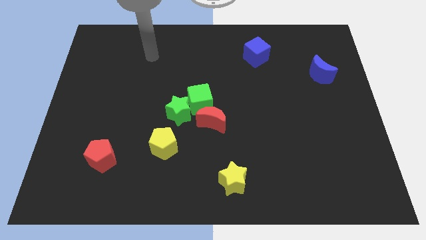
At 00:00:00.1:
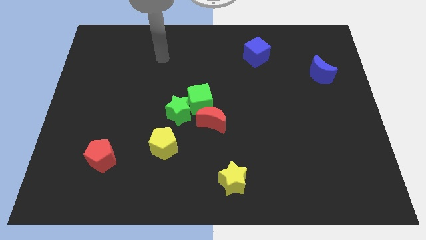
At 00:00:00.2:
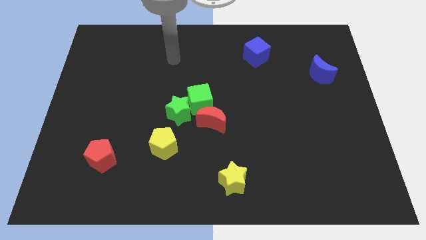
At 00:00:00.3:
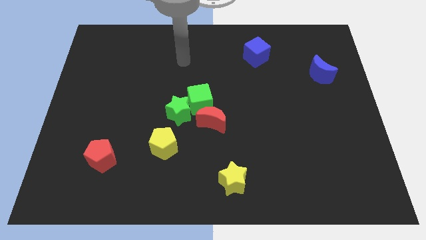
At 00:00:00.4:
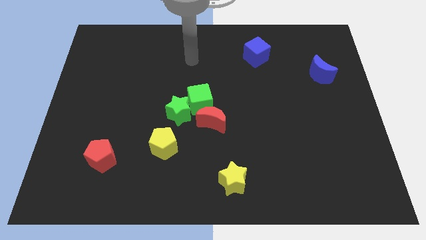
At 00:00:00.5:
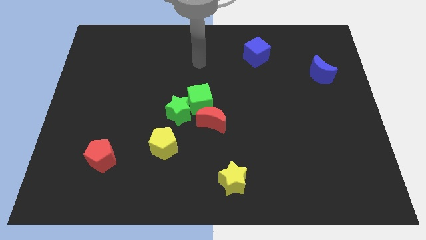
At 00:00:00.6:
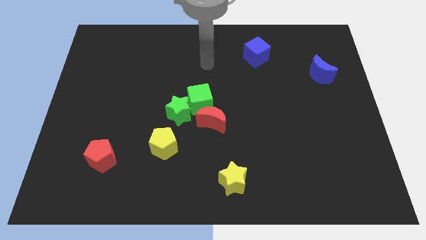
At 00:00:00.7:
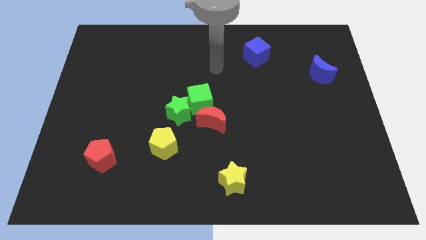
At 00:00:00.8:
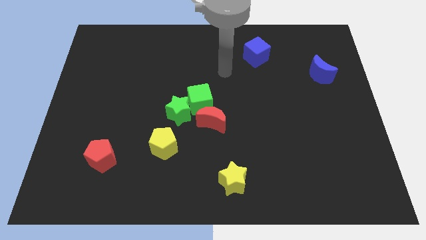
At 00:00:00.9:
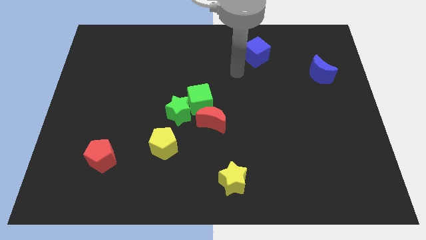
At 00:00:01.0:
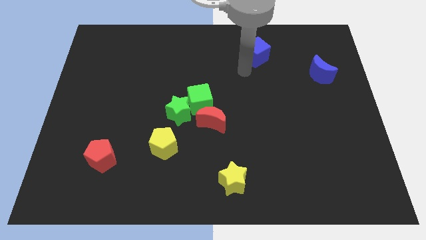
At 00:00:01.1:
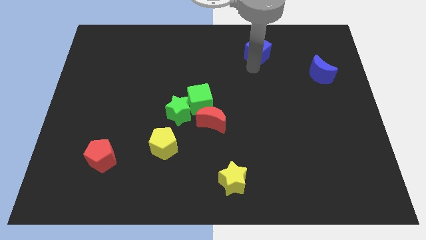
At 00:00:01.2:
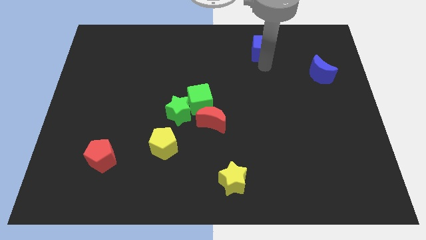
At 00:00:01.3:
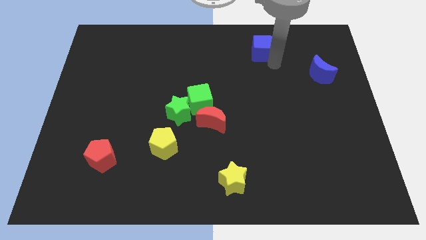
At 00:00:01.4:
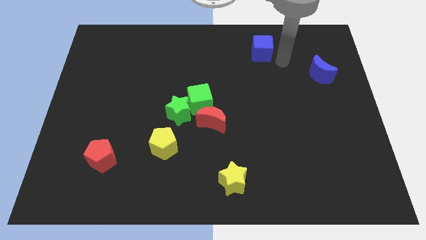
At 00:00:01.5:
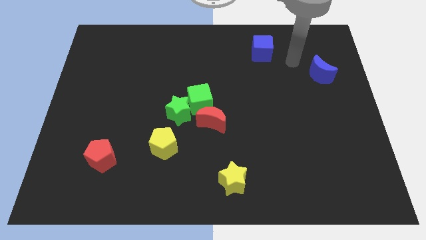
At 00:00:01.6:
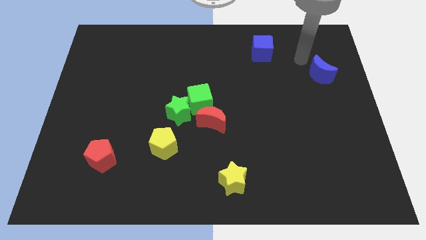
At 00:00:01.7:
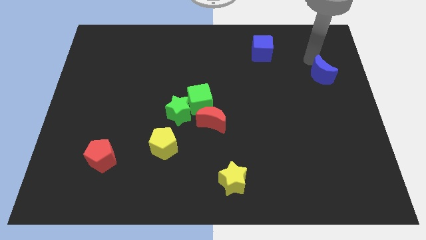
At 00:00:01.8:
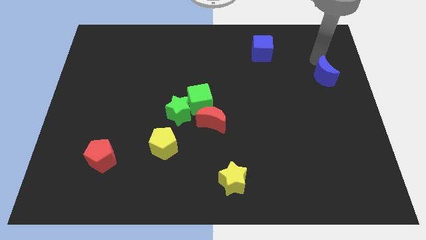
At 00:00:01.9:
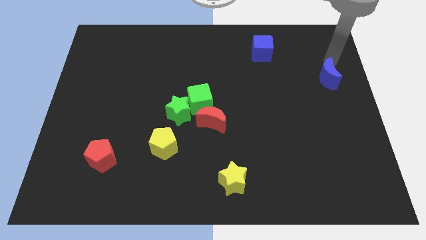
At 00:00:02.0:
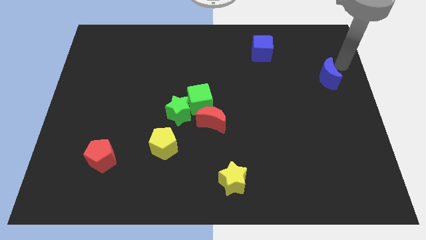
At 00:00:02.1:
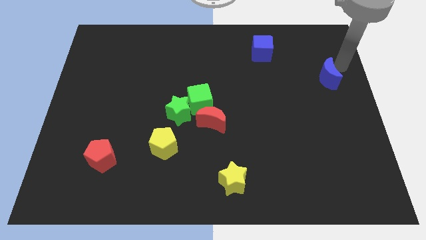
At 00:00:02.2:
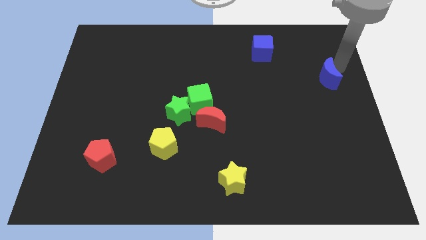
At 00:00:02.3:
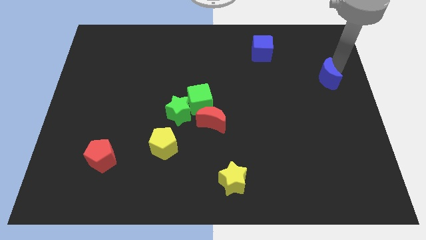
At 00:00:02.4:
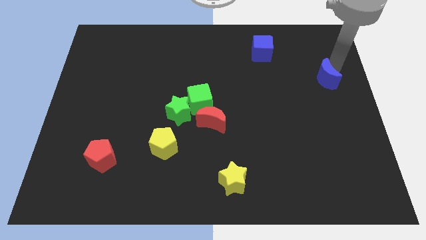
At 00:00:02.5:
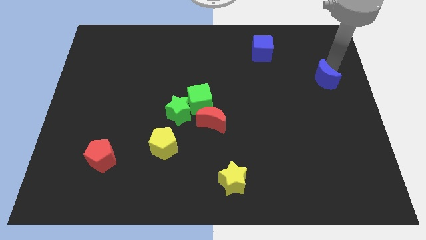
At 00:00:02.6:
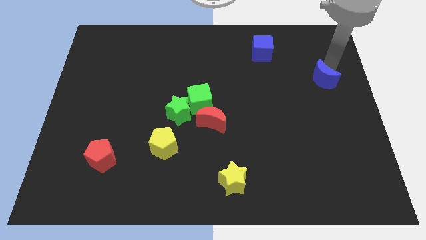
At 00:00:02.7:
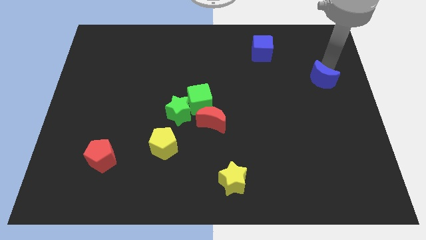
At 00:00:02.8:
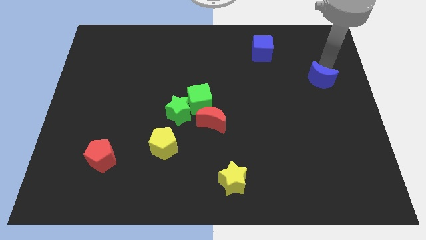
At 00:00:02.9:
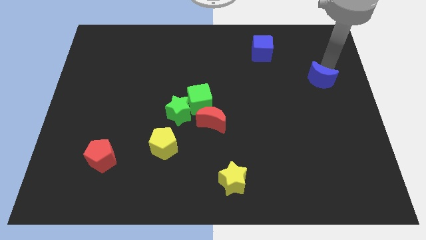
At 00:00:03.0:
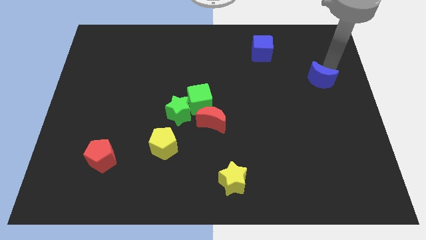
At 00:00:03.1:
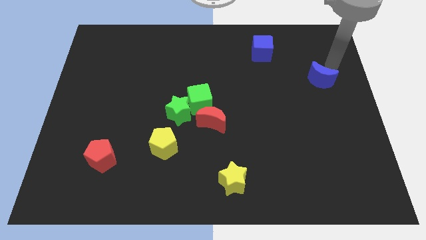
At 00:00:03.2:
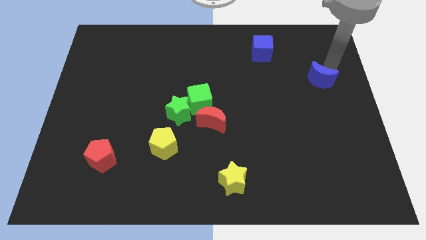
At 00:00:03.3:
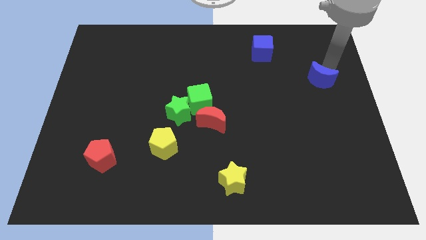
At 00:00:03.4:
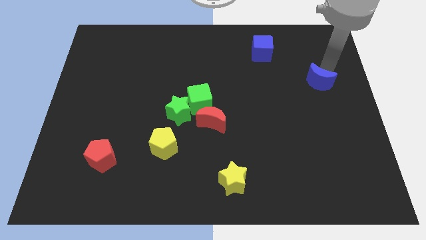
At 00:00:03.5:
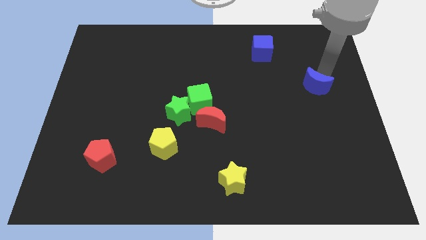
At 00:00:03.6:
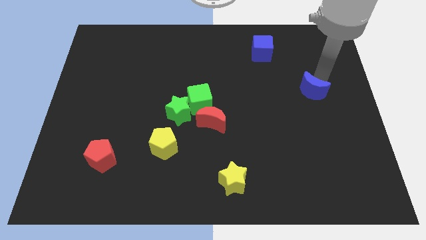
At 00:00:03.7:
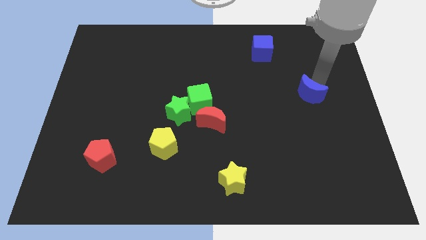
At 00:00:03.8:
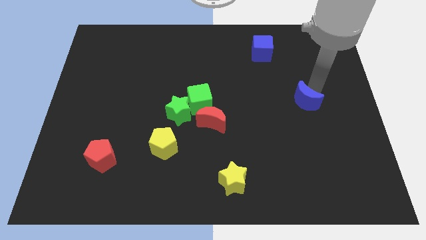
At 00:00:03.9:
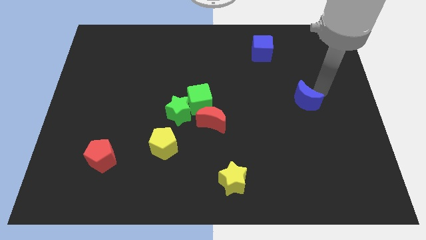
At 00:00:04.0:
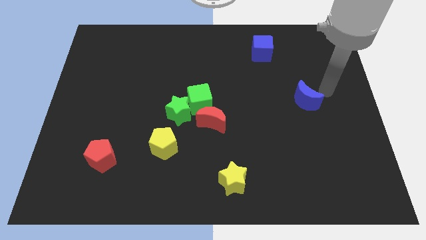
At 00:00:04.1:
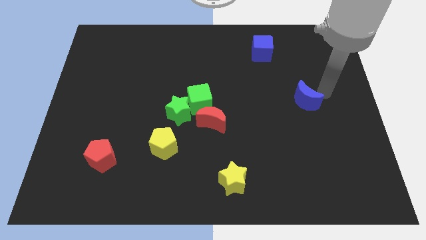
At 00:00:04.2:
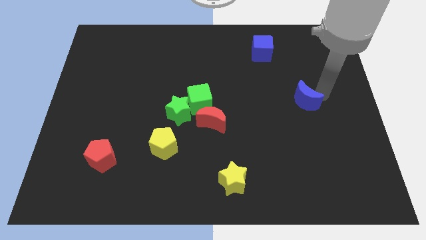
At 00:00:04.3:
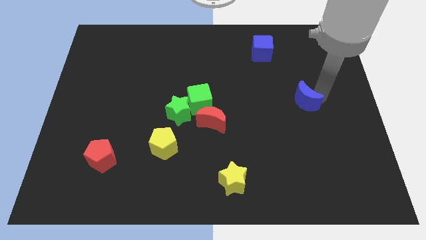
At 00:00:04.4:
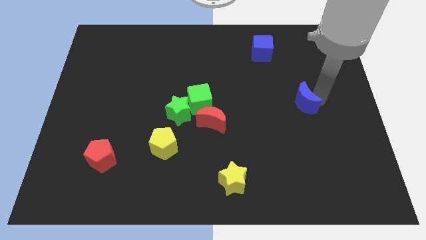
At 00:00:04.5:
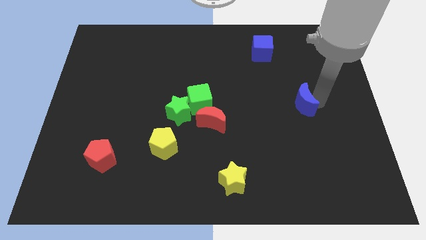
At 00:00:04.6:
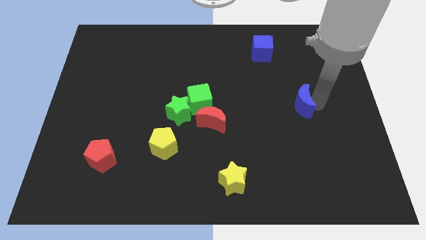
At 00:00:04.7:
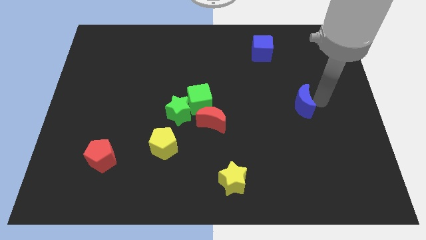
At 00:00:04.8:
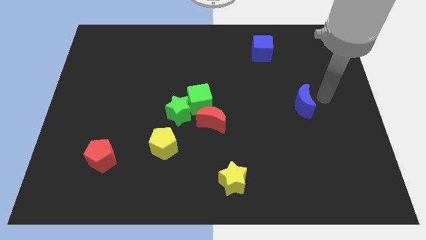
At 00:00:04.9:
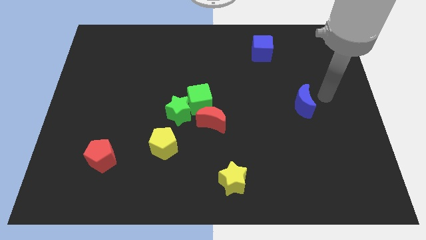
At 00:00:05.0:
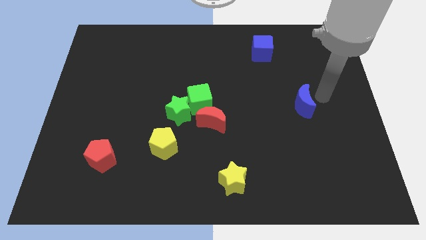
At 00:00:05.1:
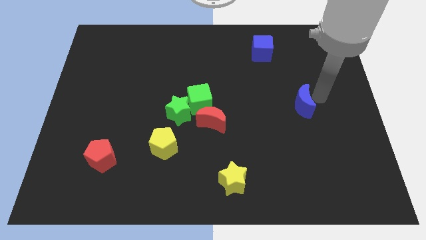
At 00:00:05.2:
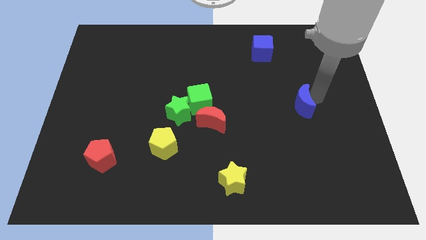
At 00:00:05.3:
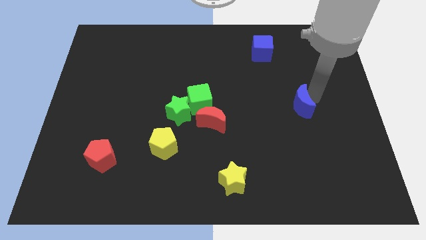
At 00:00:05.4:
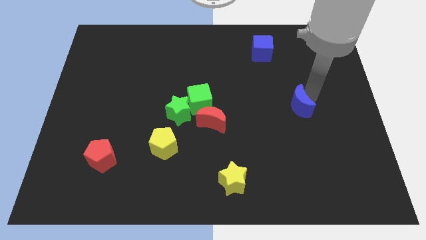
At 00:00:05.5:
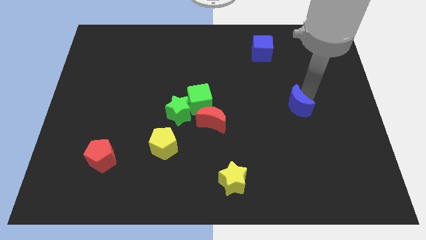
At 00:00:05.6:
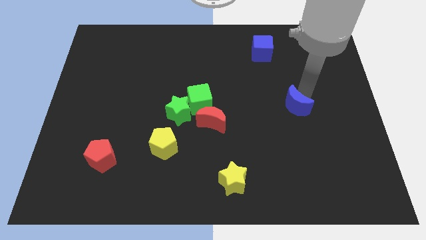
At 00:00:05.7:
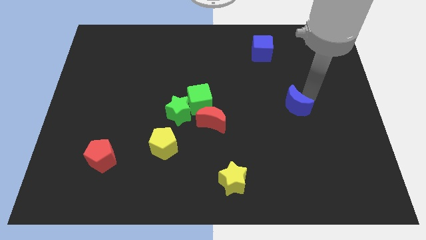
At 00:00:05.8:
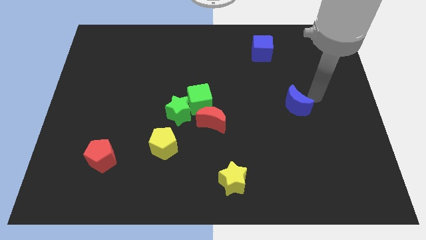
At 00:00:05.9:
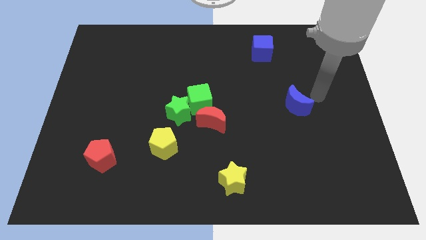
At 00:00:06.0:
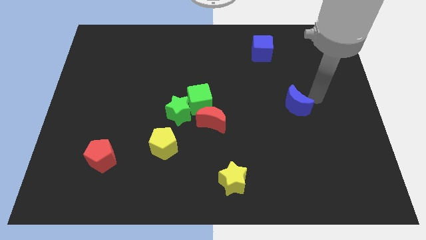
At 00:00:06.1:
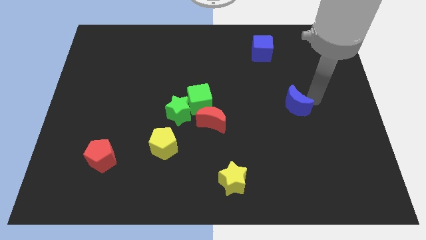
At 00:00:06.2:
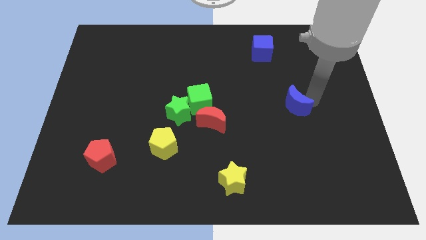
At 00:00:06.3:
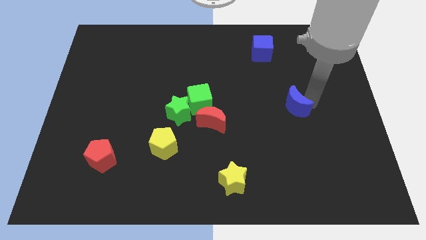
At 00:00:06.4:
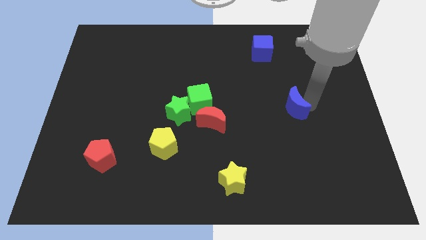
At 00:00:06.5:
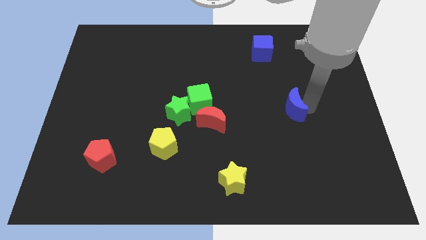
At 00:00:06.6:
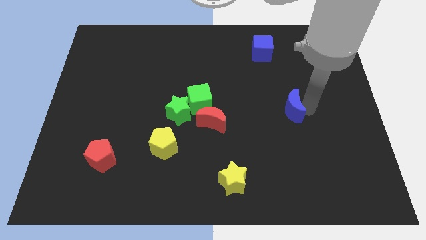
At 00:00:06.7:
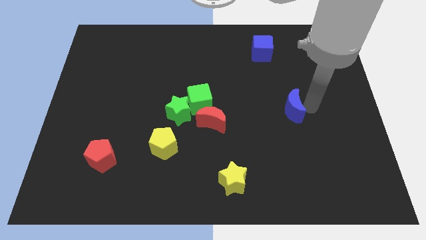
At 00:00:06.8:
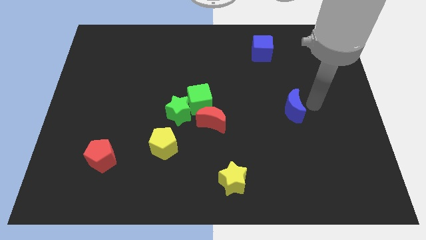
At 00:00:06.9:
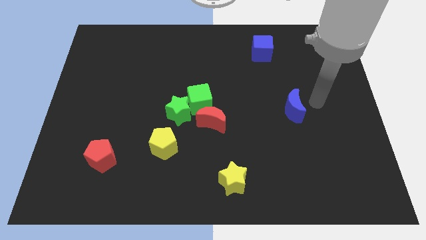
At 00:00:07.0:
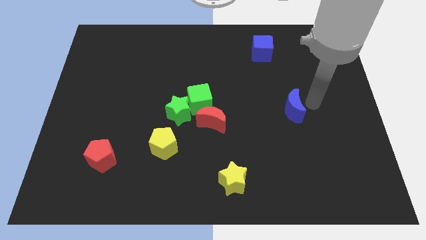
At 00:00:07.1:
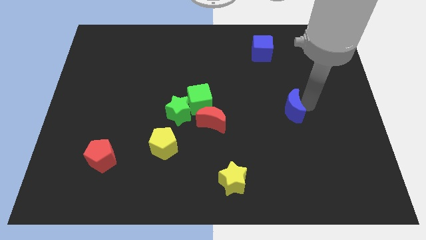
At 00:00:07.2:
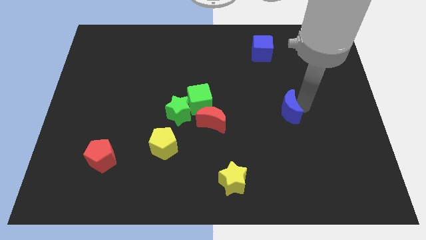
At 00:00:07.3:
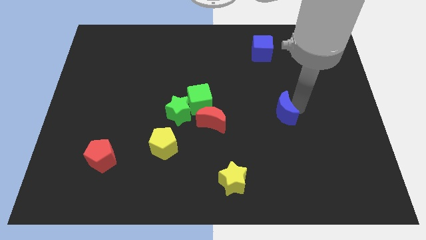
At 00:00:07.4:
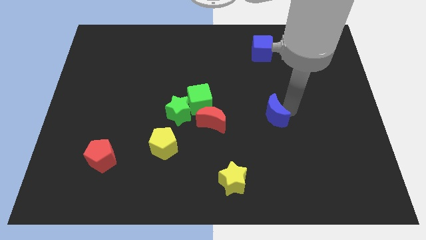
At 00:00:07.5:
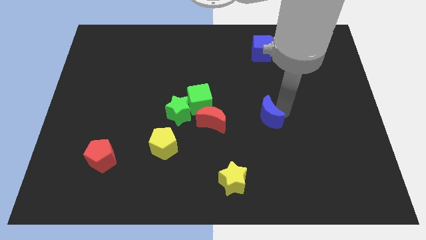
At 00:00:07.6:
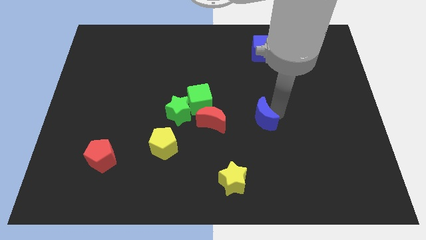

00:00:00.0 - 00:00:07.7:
move the blue moon downwards and left diagonally
